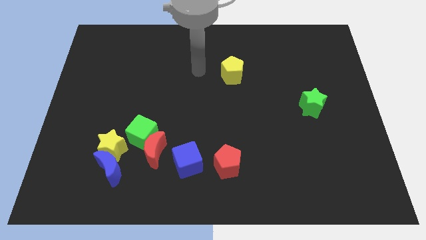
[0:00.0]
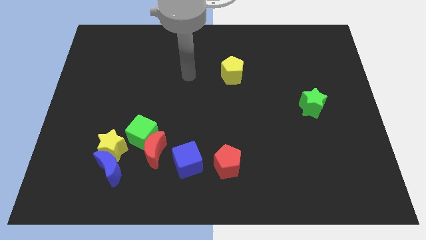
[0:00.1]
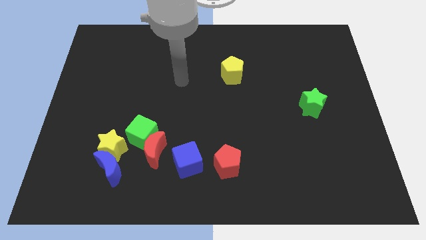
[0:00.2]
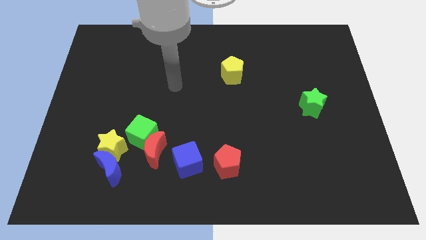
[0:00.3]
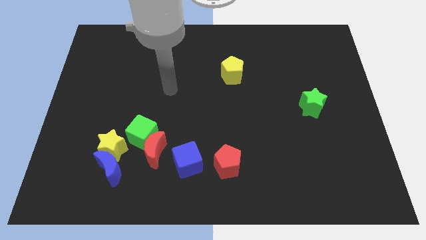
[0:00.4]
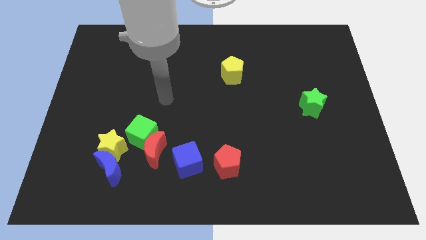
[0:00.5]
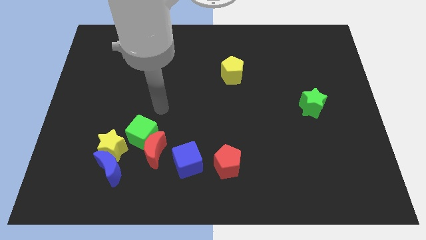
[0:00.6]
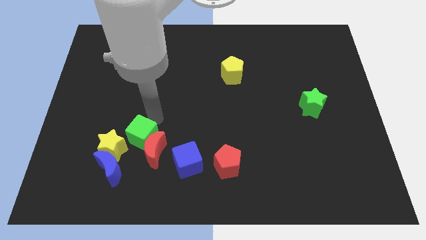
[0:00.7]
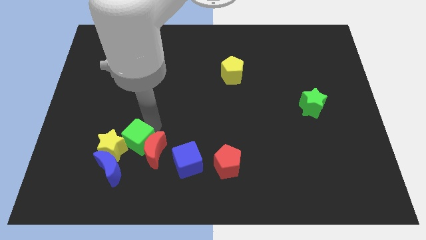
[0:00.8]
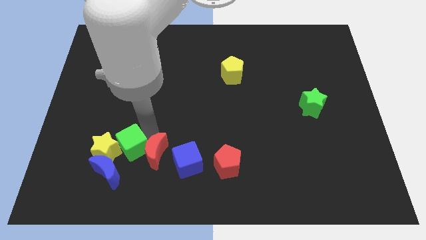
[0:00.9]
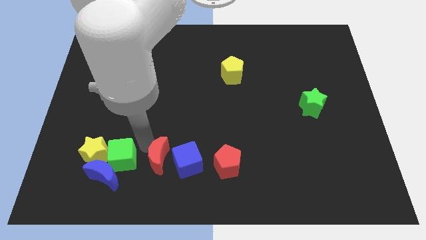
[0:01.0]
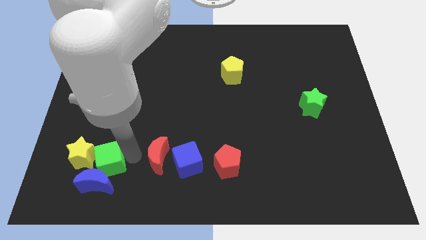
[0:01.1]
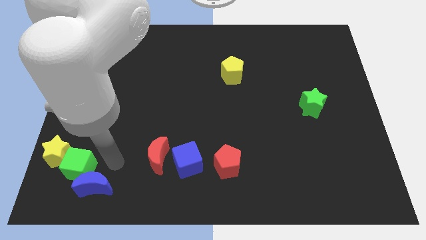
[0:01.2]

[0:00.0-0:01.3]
pull the yellow star apart from the clump

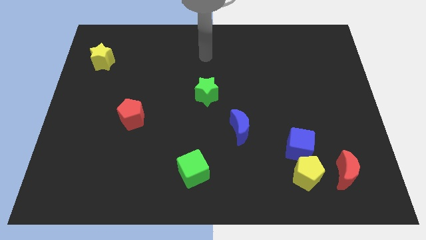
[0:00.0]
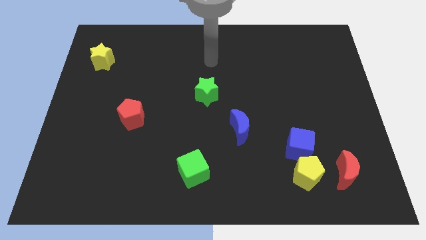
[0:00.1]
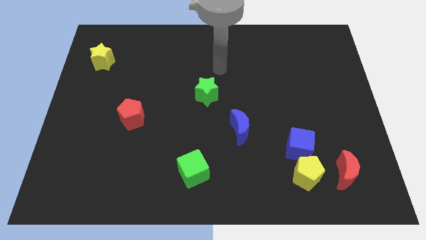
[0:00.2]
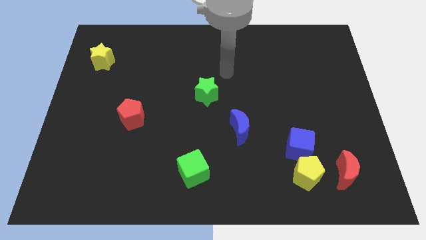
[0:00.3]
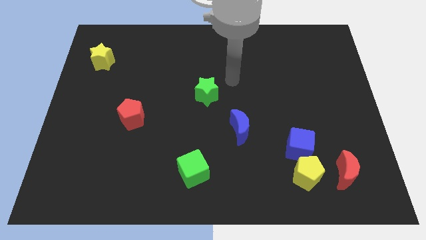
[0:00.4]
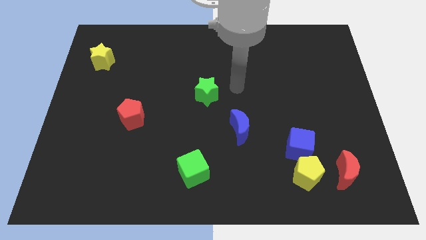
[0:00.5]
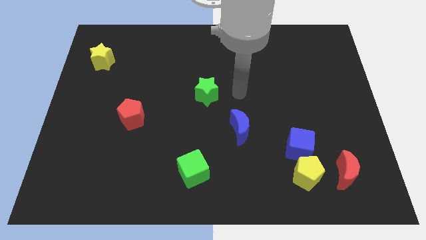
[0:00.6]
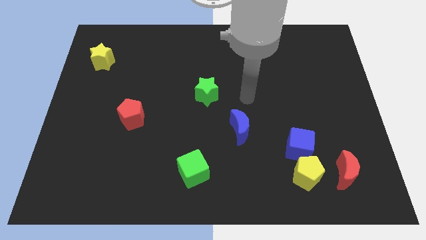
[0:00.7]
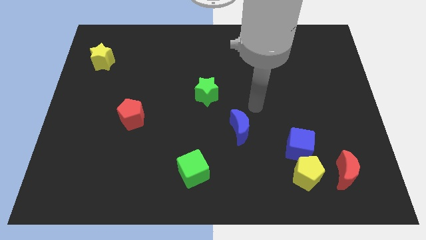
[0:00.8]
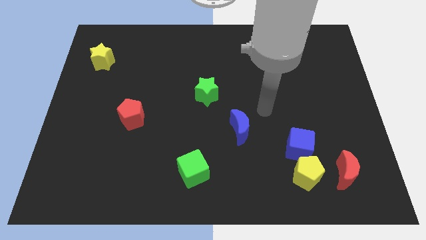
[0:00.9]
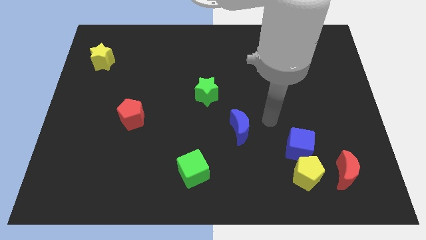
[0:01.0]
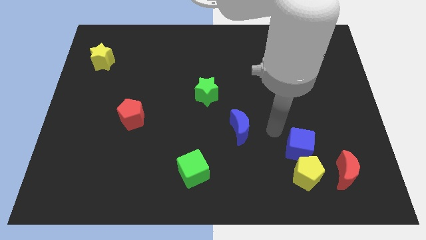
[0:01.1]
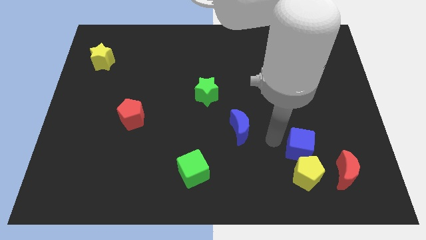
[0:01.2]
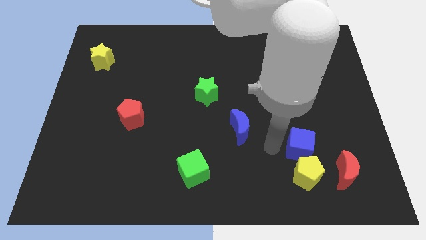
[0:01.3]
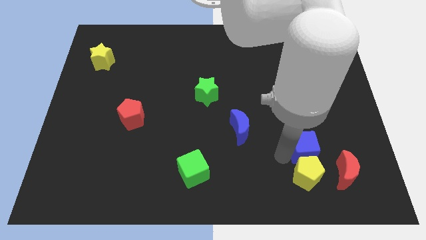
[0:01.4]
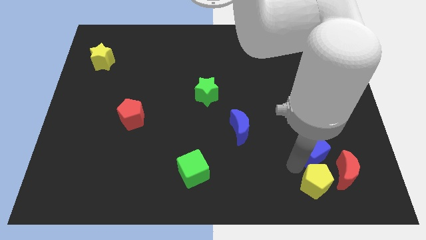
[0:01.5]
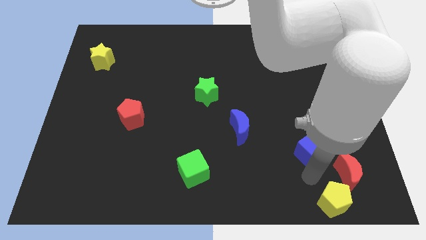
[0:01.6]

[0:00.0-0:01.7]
pull the blue cube apart from the yellow pentagon

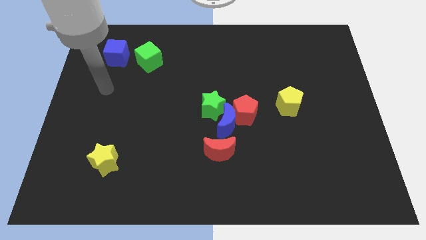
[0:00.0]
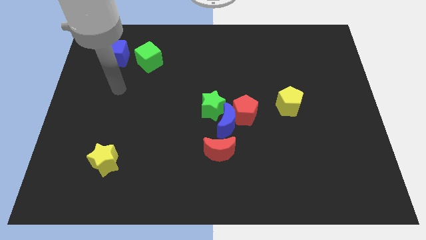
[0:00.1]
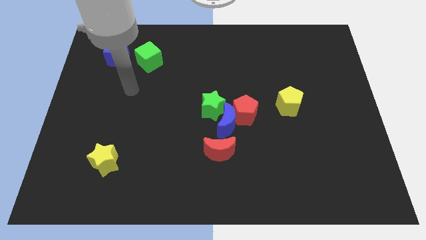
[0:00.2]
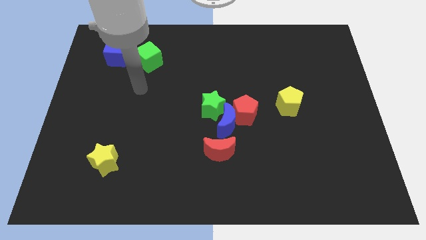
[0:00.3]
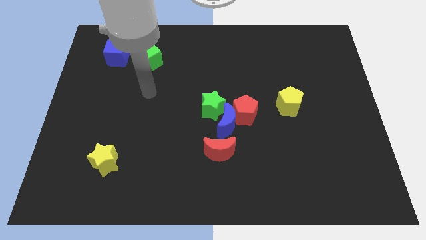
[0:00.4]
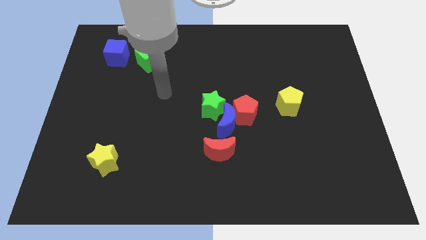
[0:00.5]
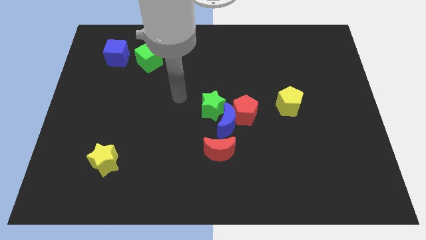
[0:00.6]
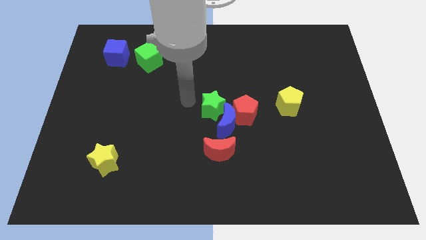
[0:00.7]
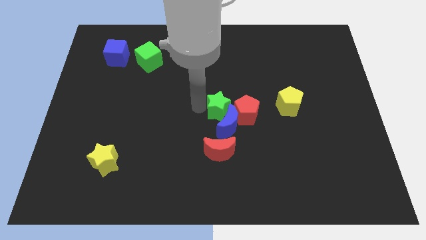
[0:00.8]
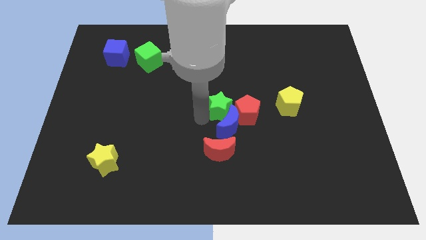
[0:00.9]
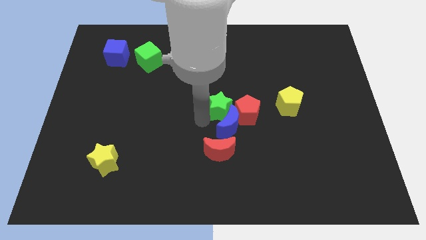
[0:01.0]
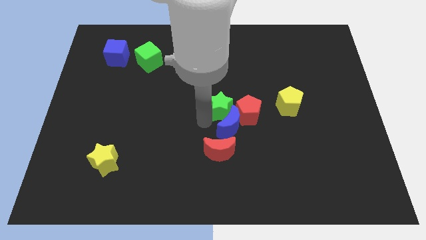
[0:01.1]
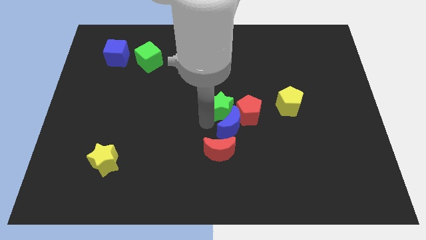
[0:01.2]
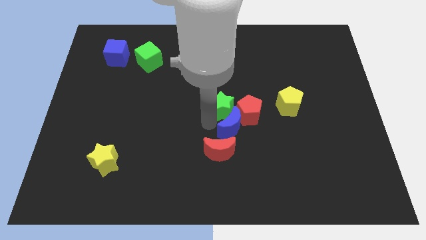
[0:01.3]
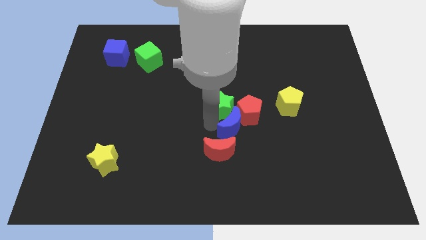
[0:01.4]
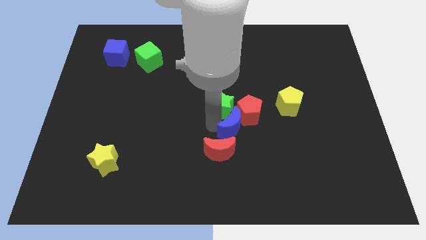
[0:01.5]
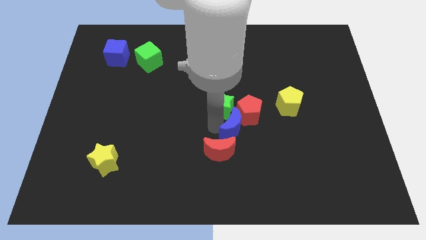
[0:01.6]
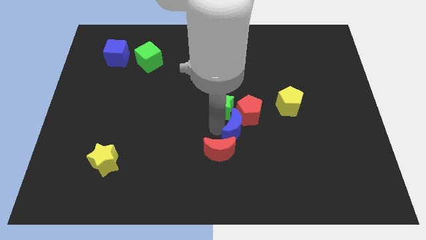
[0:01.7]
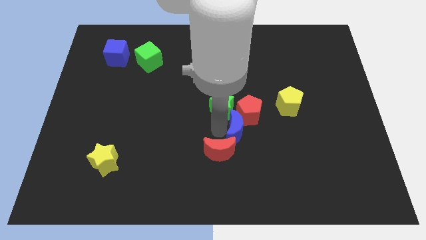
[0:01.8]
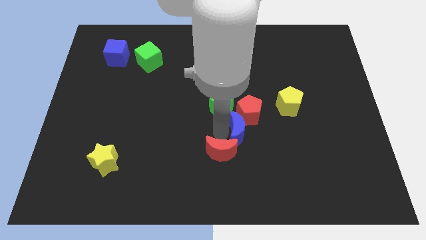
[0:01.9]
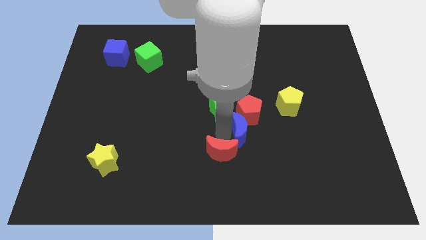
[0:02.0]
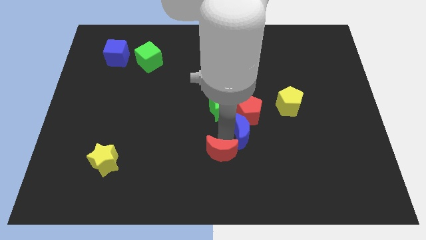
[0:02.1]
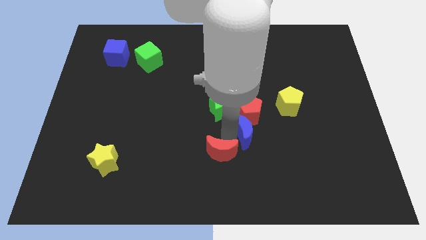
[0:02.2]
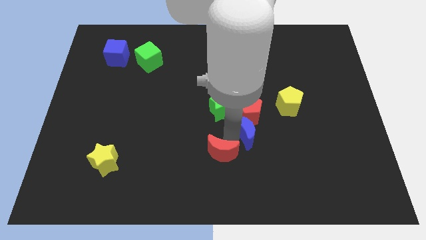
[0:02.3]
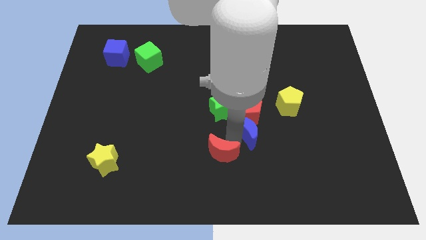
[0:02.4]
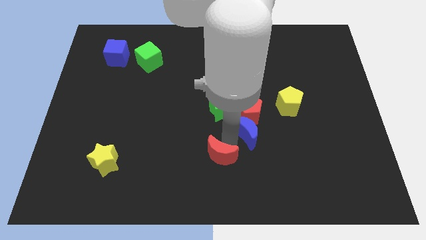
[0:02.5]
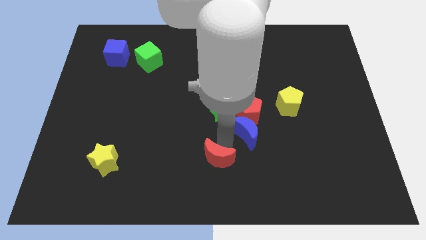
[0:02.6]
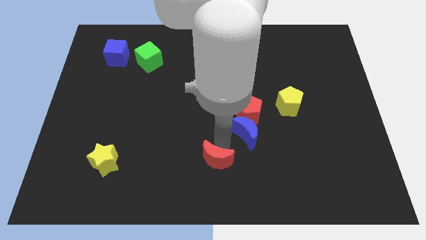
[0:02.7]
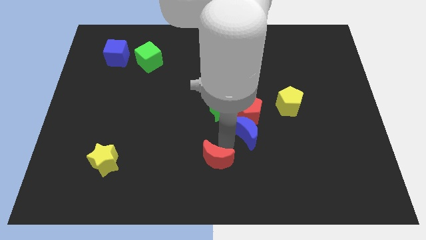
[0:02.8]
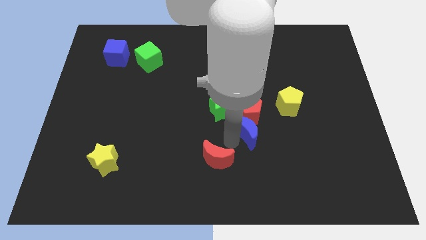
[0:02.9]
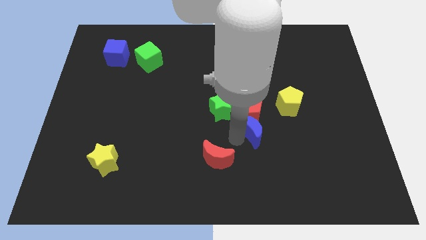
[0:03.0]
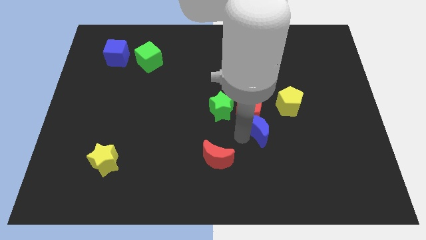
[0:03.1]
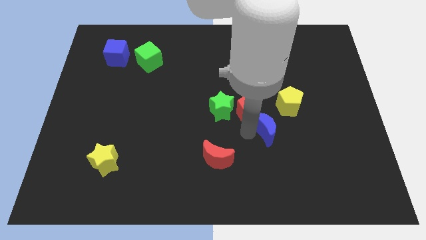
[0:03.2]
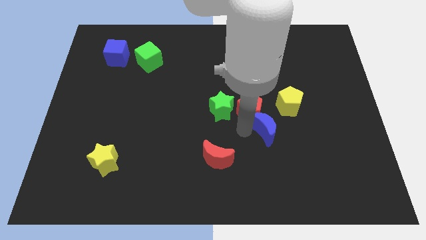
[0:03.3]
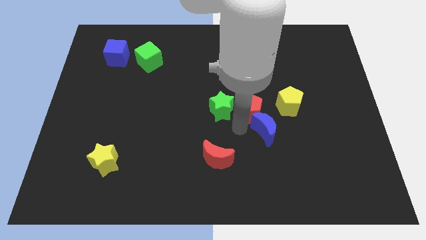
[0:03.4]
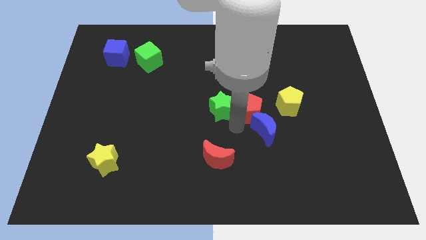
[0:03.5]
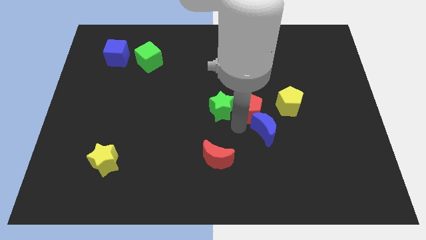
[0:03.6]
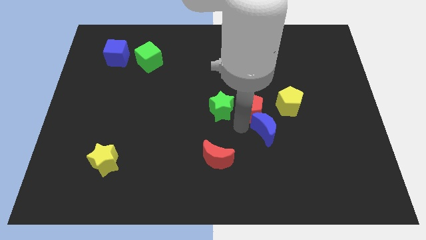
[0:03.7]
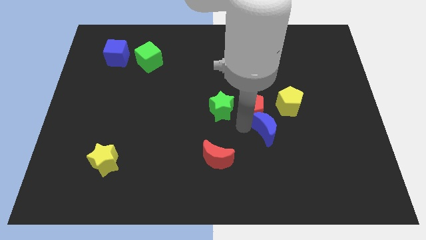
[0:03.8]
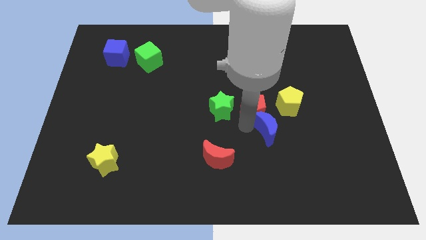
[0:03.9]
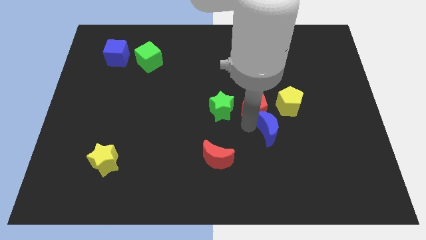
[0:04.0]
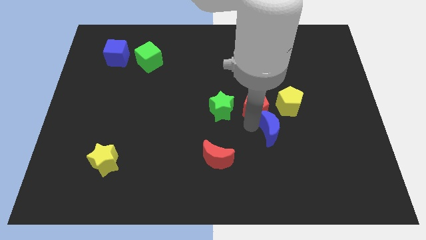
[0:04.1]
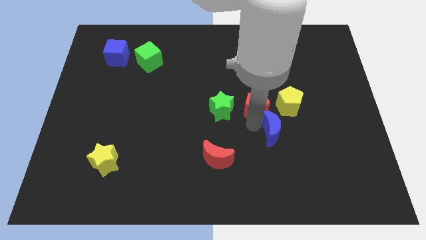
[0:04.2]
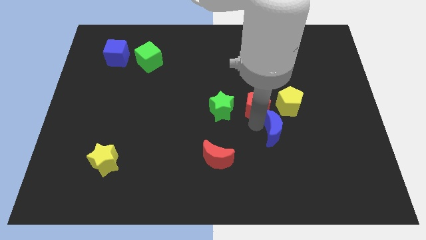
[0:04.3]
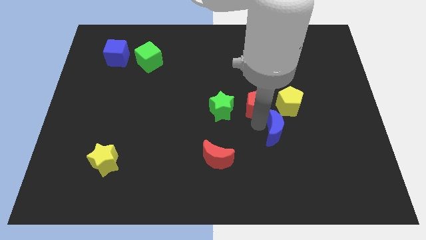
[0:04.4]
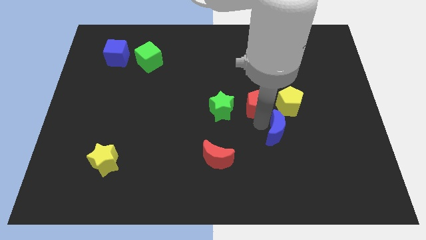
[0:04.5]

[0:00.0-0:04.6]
separate the blue moon from the red pentagon, green star, and red moon

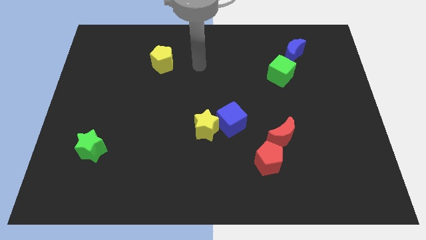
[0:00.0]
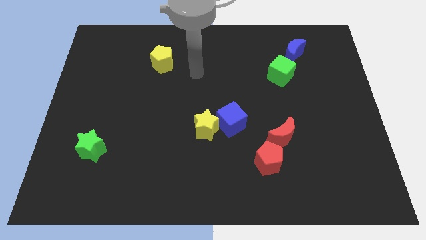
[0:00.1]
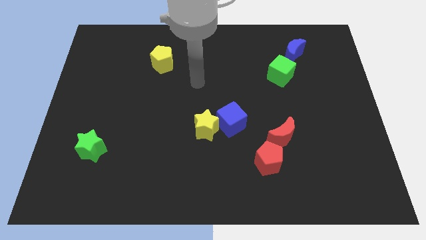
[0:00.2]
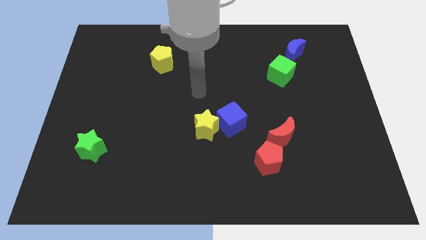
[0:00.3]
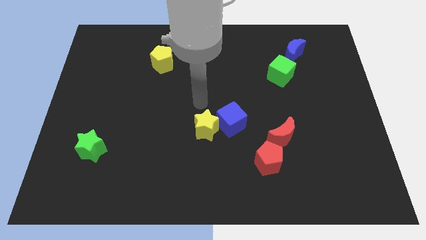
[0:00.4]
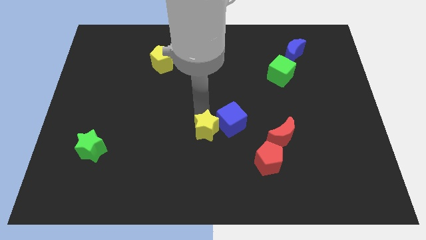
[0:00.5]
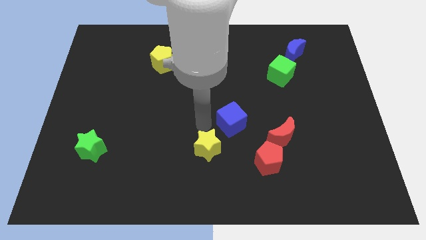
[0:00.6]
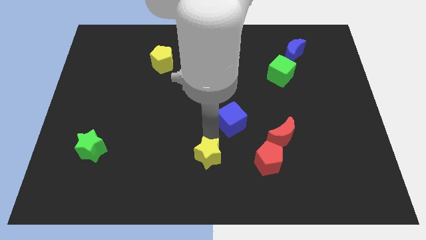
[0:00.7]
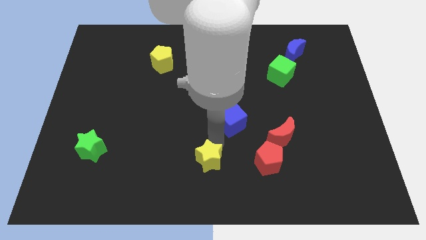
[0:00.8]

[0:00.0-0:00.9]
separate the blue cube from the yellow star

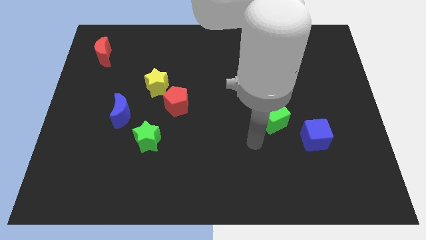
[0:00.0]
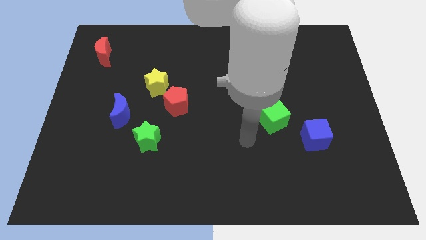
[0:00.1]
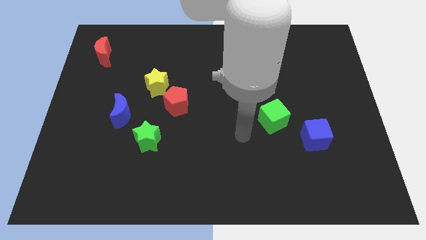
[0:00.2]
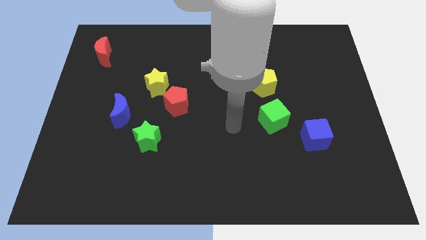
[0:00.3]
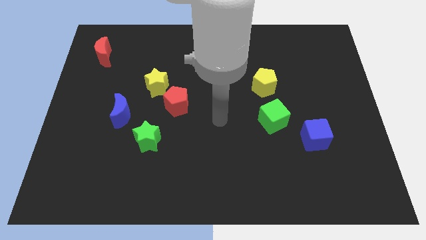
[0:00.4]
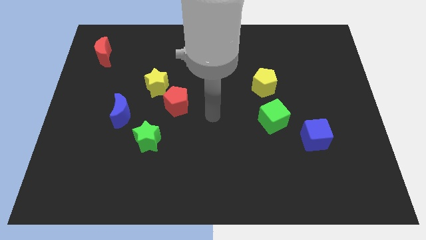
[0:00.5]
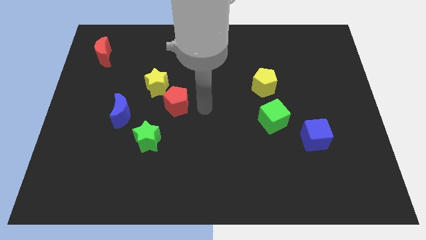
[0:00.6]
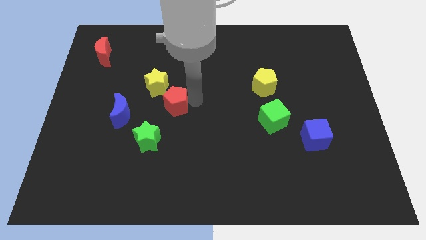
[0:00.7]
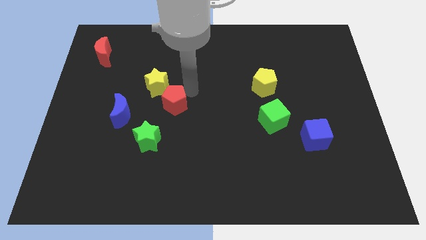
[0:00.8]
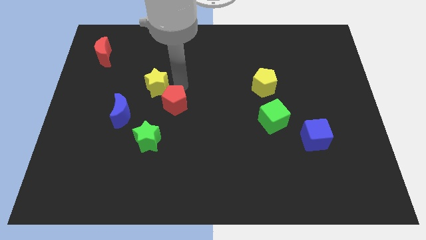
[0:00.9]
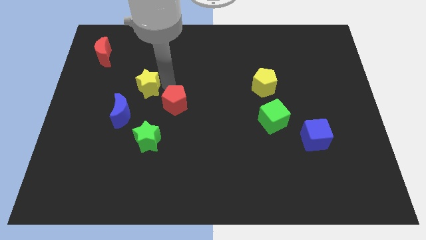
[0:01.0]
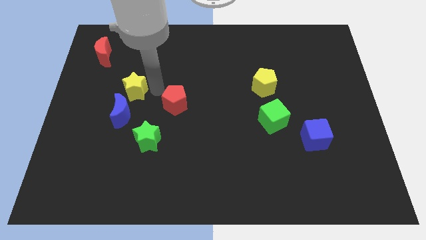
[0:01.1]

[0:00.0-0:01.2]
pull the red pentagon apart from the yellow star
